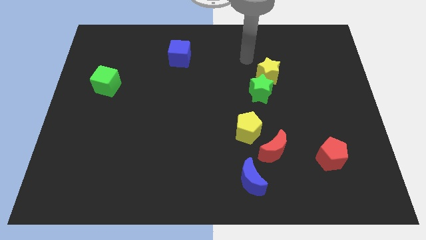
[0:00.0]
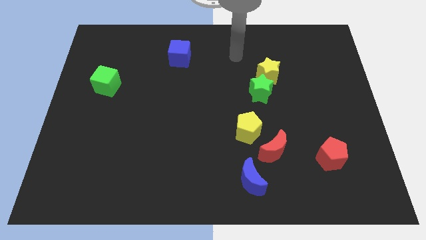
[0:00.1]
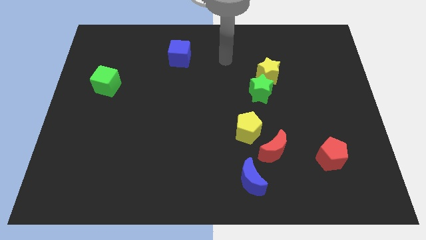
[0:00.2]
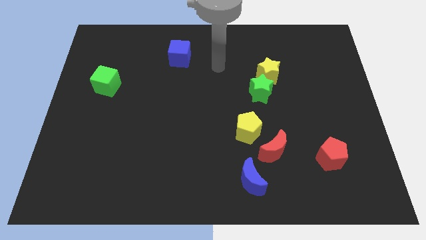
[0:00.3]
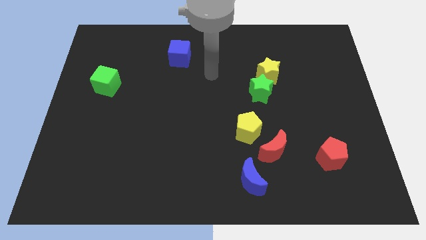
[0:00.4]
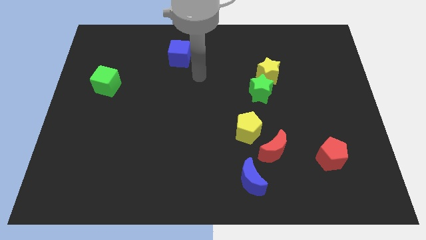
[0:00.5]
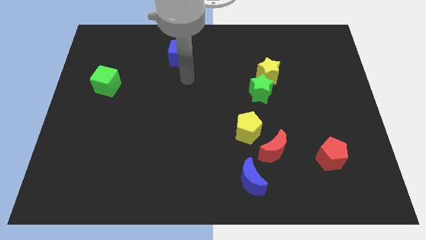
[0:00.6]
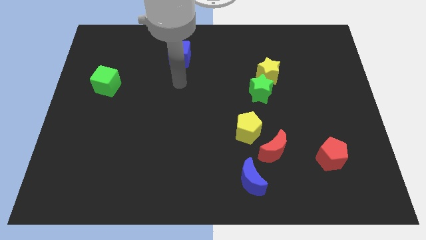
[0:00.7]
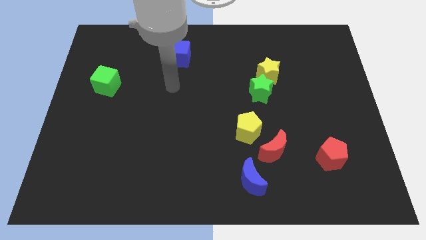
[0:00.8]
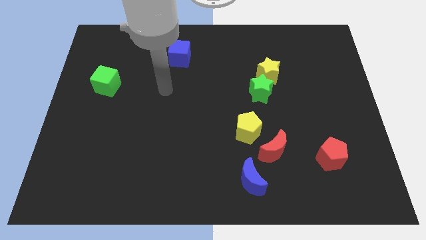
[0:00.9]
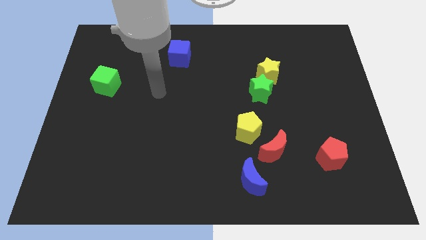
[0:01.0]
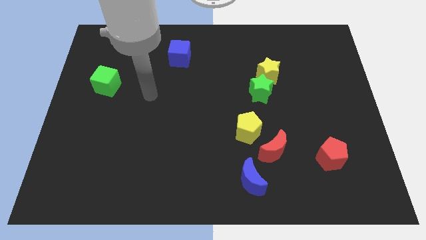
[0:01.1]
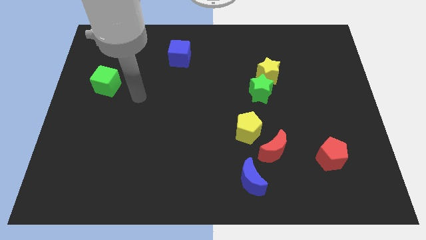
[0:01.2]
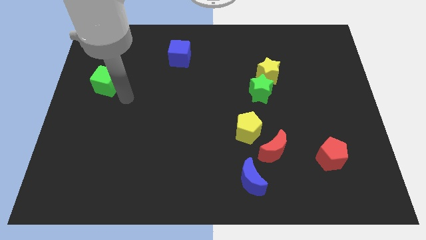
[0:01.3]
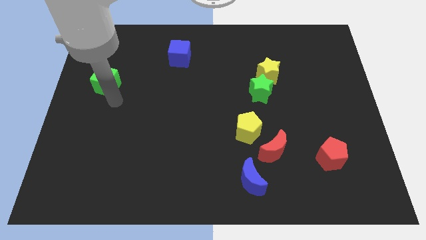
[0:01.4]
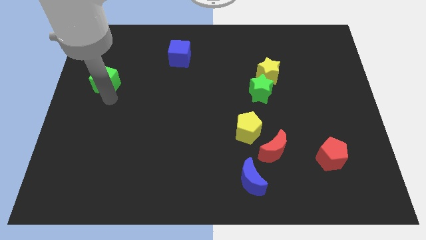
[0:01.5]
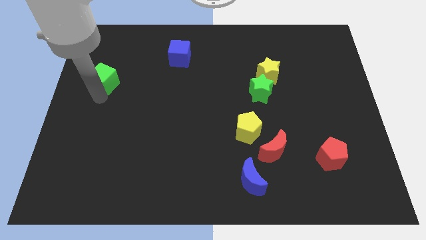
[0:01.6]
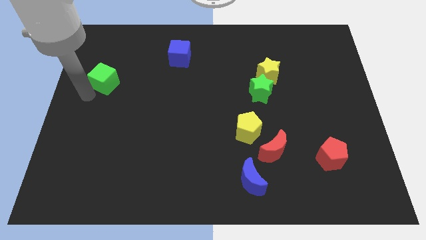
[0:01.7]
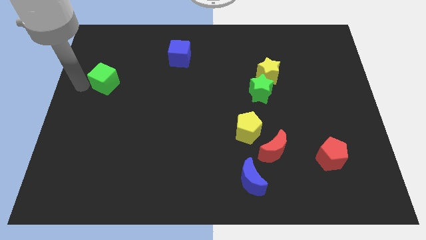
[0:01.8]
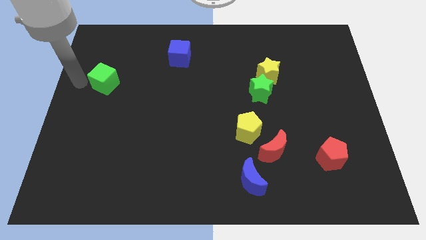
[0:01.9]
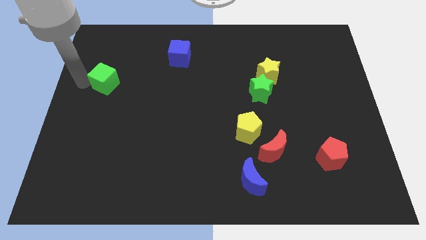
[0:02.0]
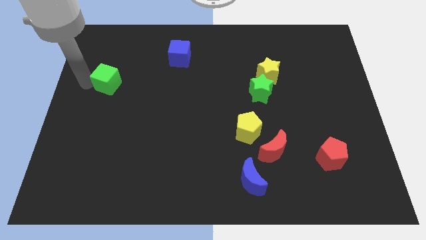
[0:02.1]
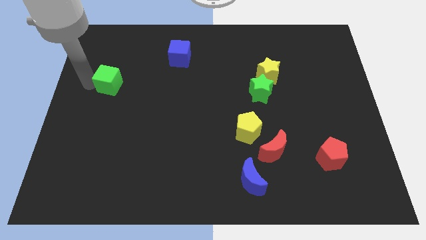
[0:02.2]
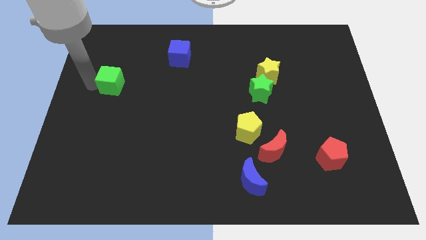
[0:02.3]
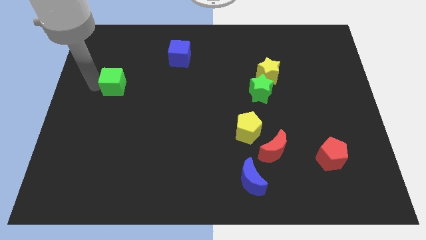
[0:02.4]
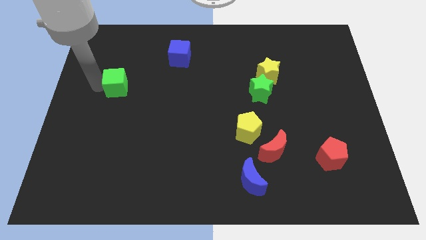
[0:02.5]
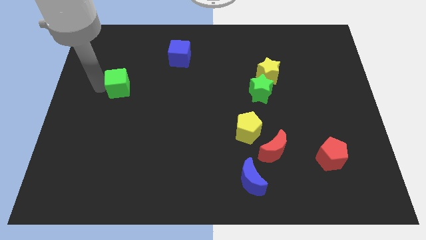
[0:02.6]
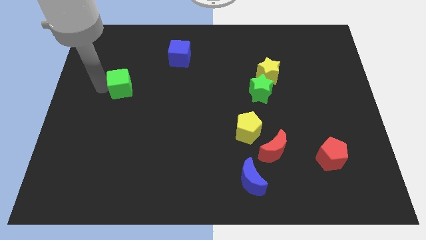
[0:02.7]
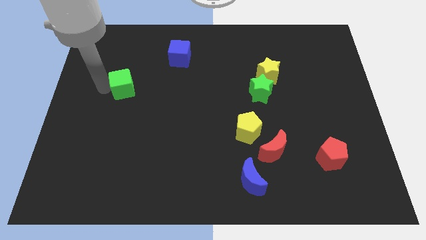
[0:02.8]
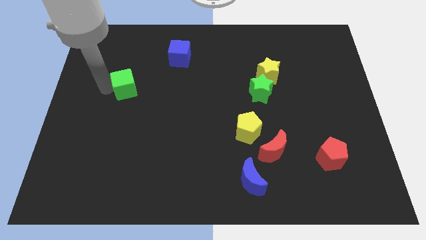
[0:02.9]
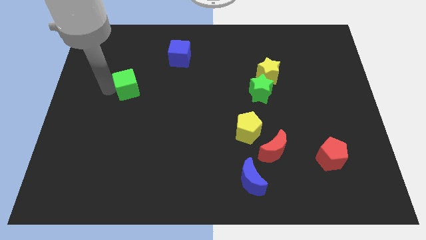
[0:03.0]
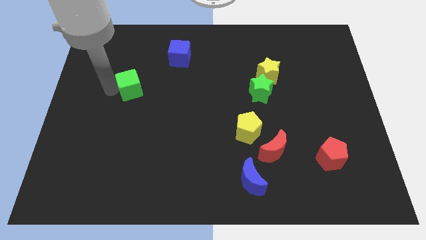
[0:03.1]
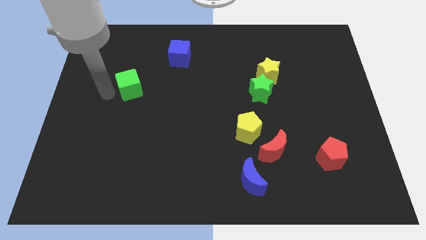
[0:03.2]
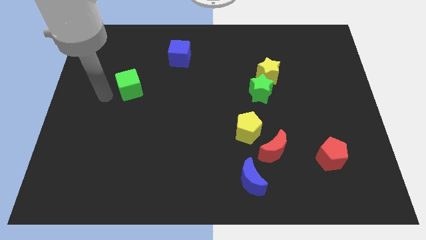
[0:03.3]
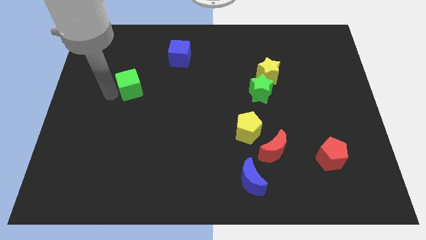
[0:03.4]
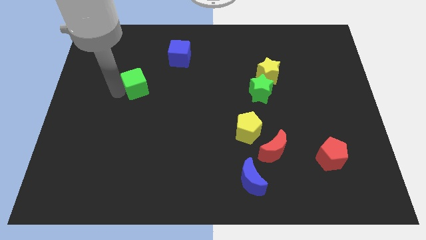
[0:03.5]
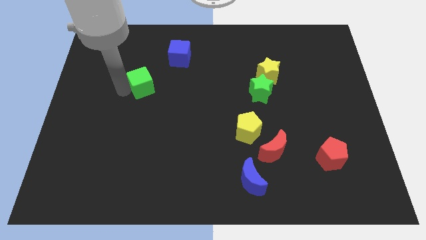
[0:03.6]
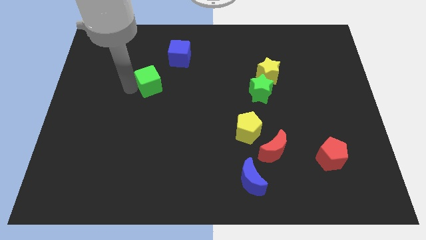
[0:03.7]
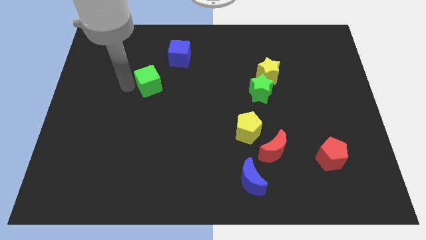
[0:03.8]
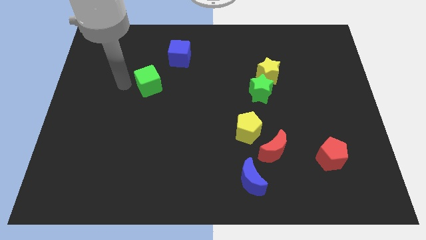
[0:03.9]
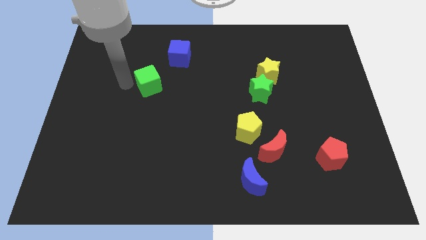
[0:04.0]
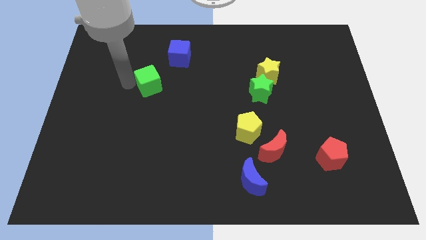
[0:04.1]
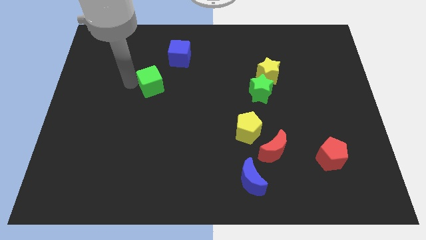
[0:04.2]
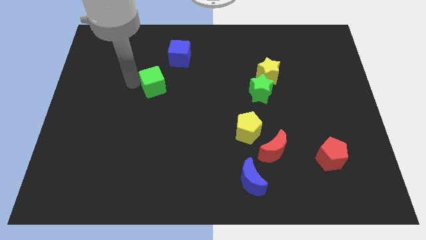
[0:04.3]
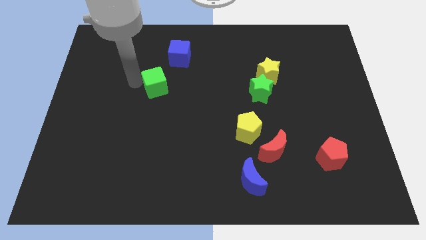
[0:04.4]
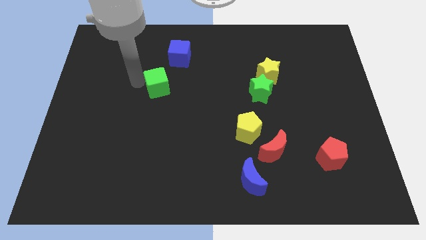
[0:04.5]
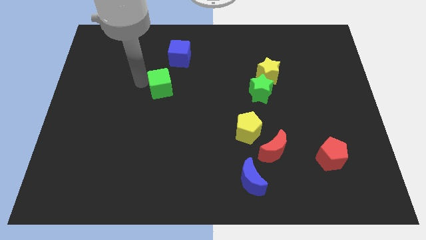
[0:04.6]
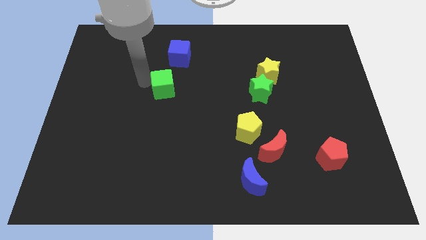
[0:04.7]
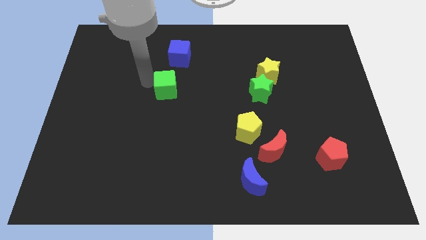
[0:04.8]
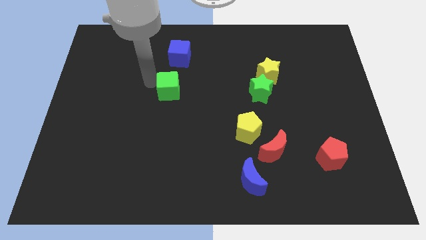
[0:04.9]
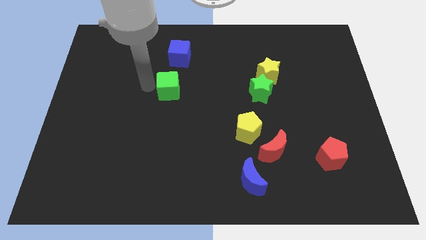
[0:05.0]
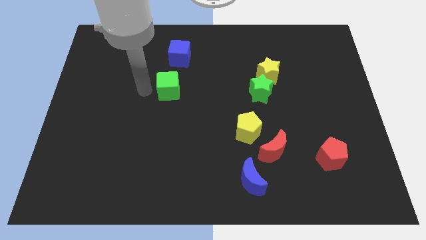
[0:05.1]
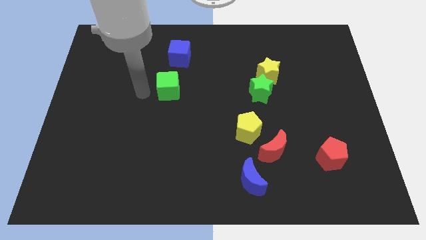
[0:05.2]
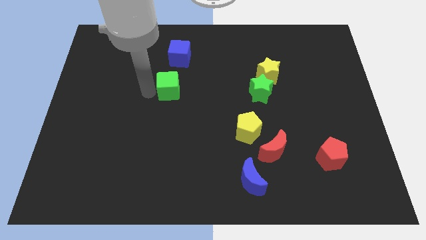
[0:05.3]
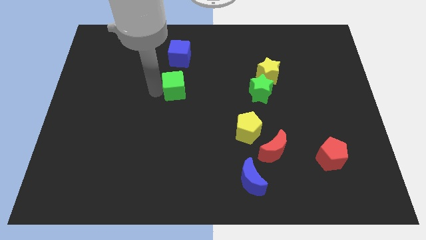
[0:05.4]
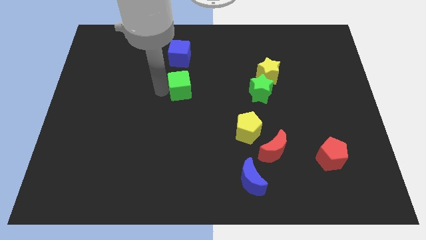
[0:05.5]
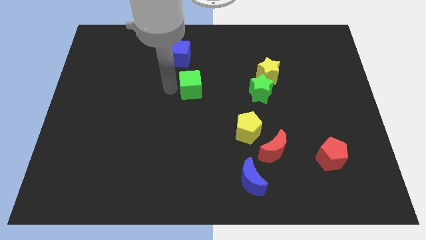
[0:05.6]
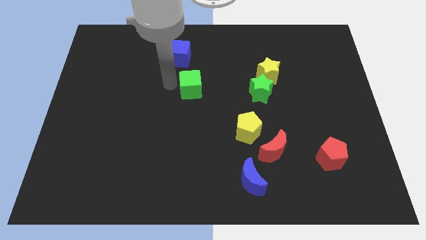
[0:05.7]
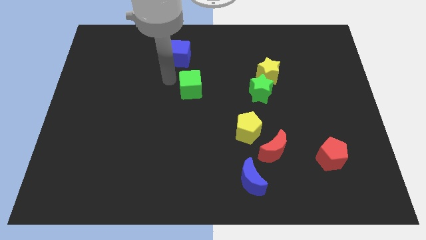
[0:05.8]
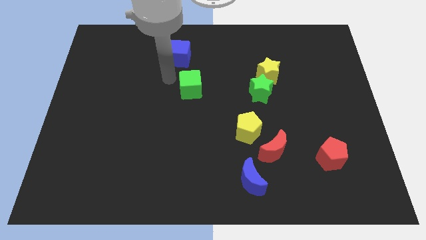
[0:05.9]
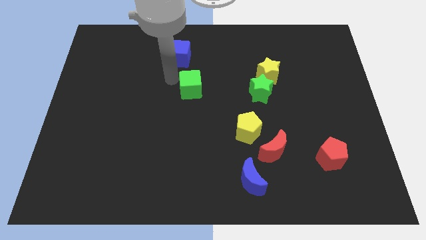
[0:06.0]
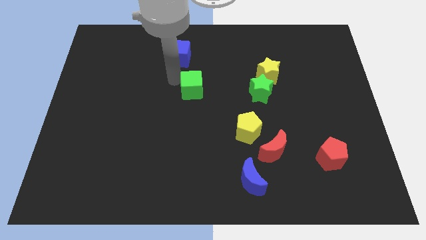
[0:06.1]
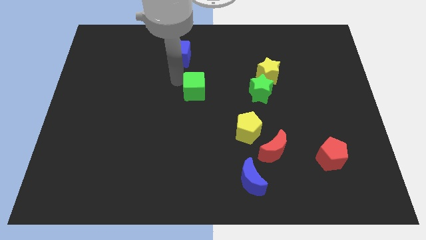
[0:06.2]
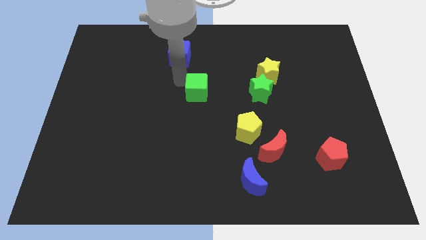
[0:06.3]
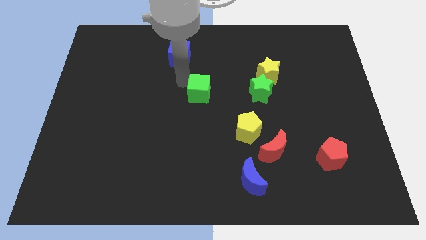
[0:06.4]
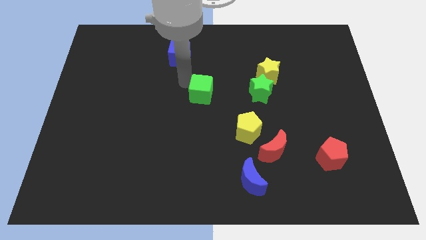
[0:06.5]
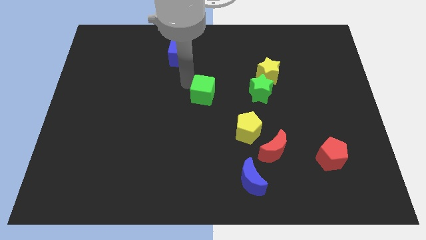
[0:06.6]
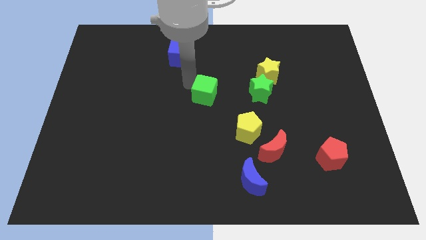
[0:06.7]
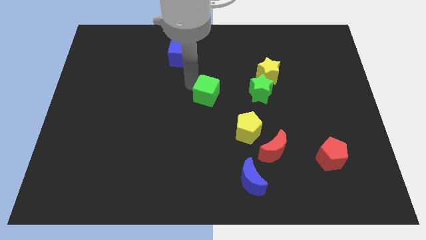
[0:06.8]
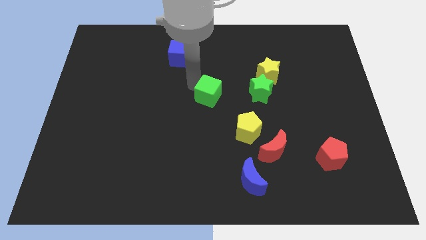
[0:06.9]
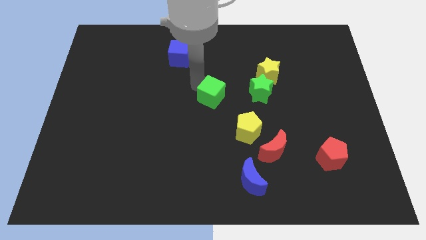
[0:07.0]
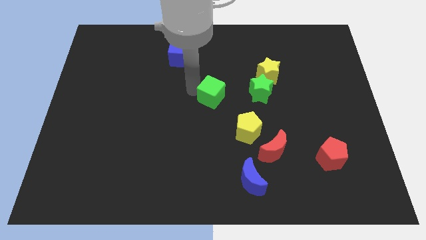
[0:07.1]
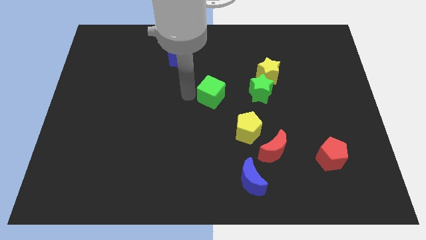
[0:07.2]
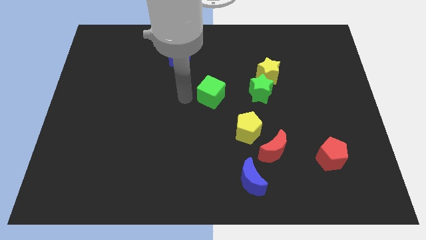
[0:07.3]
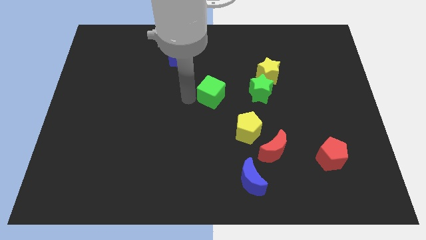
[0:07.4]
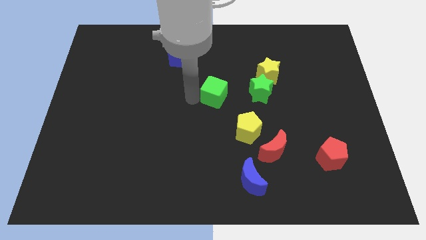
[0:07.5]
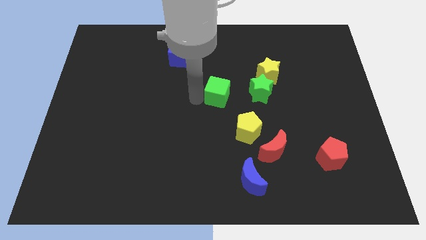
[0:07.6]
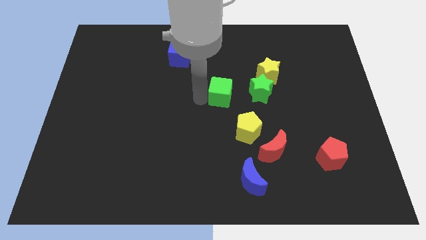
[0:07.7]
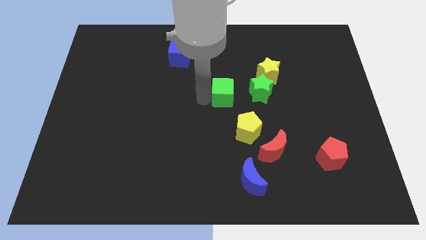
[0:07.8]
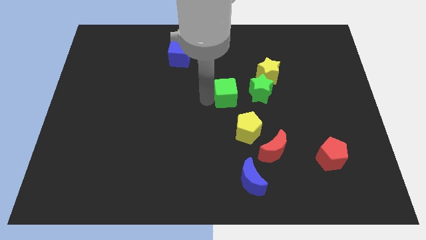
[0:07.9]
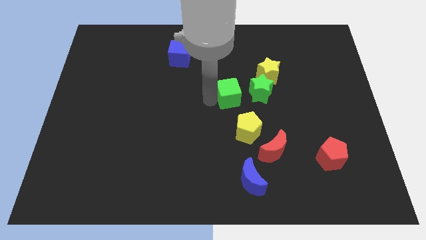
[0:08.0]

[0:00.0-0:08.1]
slide the green cube diagonally down and to the left of the yellow star
